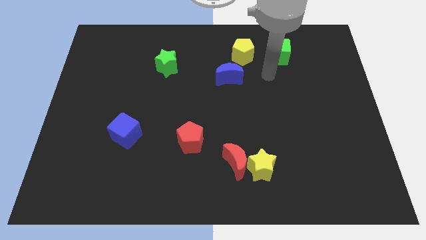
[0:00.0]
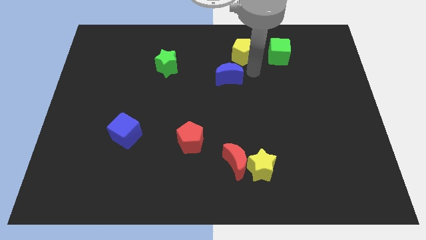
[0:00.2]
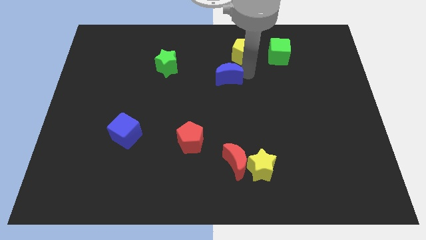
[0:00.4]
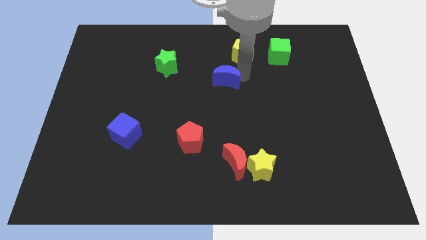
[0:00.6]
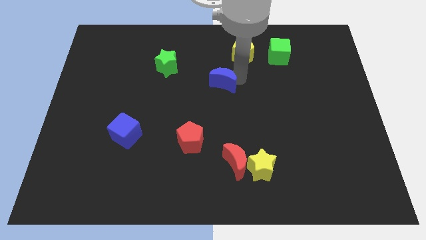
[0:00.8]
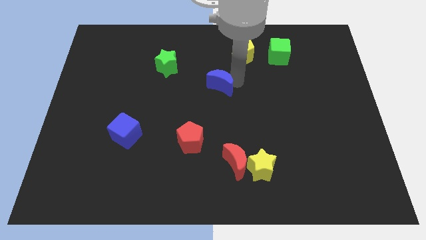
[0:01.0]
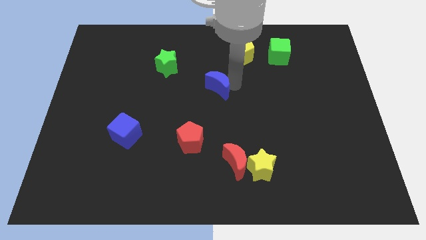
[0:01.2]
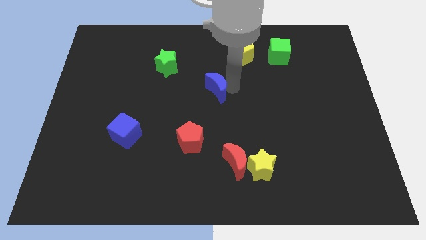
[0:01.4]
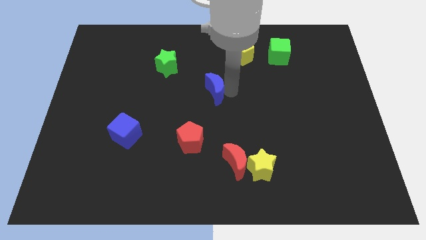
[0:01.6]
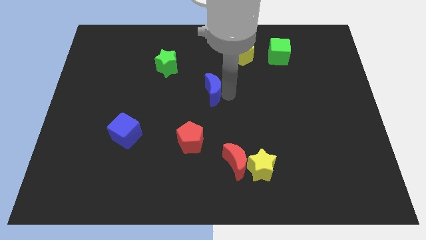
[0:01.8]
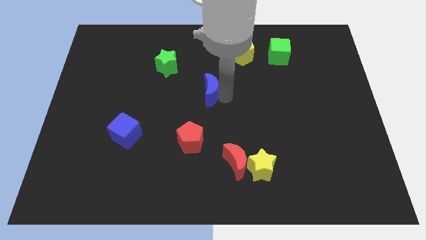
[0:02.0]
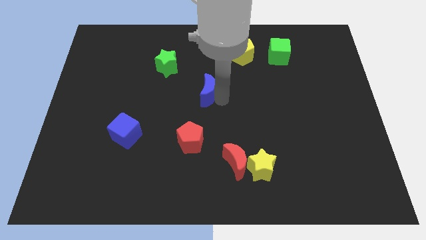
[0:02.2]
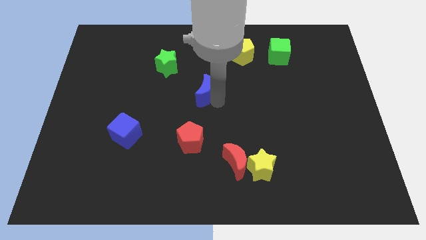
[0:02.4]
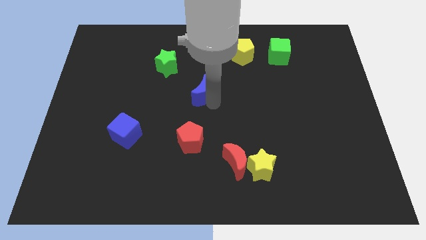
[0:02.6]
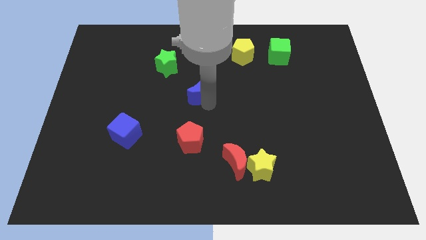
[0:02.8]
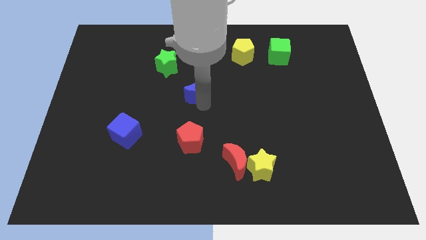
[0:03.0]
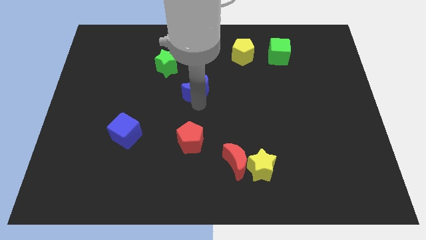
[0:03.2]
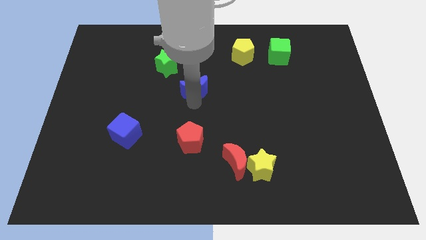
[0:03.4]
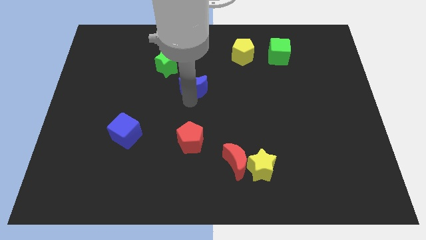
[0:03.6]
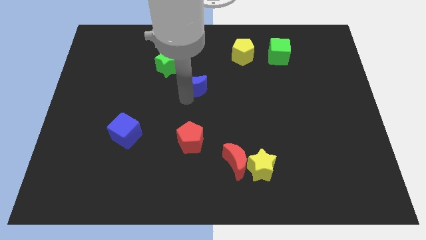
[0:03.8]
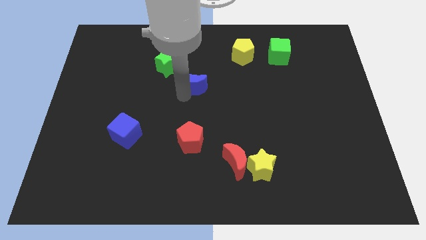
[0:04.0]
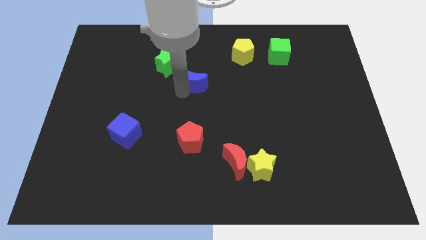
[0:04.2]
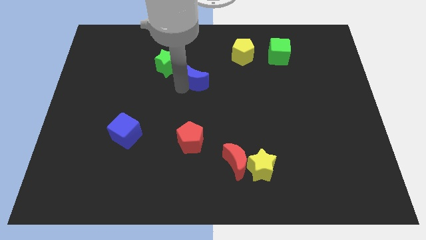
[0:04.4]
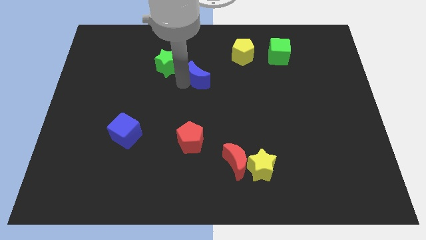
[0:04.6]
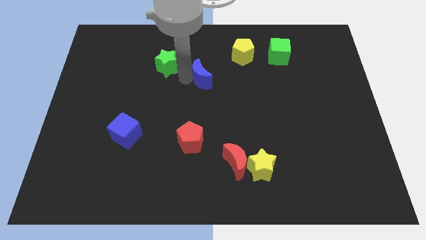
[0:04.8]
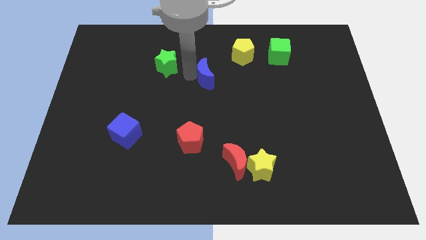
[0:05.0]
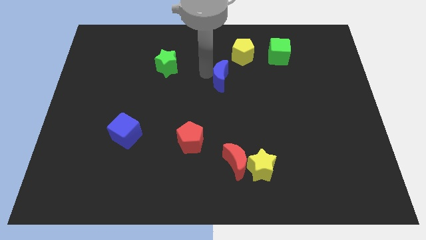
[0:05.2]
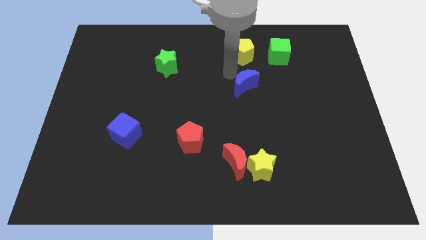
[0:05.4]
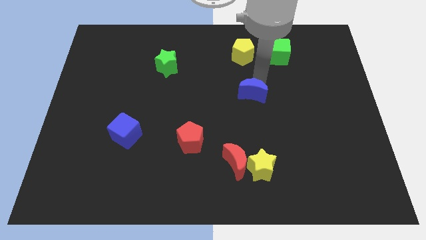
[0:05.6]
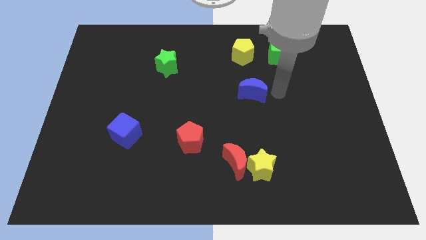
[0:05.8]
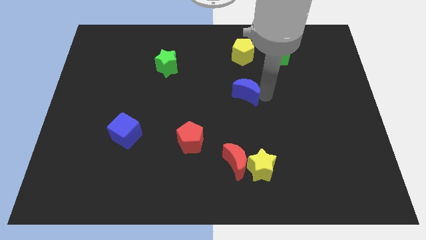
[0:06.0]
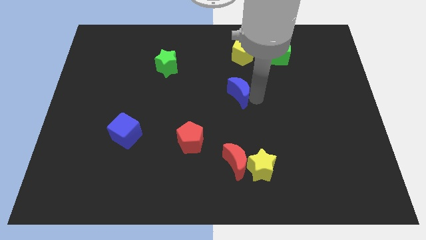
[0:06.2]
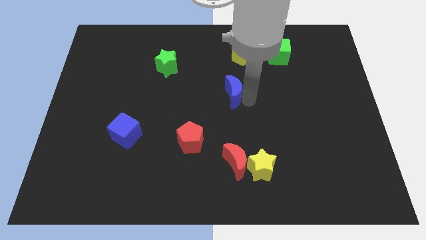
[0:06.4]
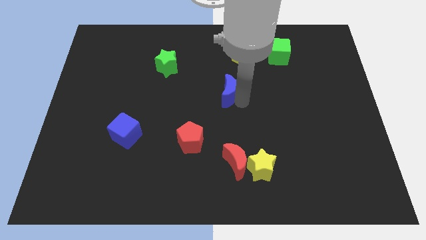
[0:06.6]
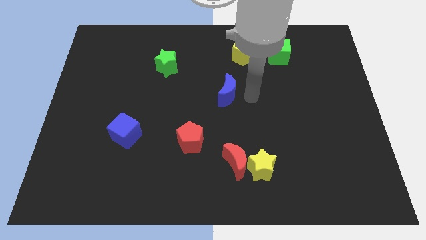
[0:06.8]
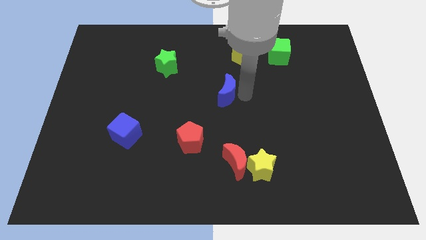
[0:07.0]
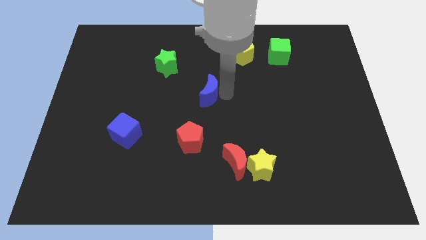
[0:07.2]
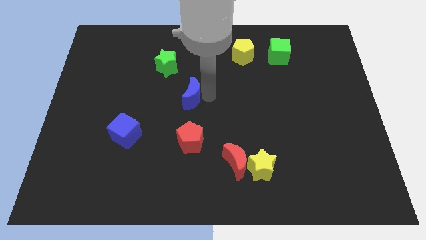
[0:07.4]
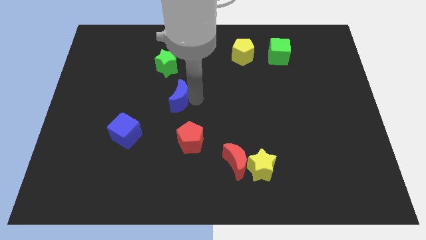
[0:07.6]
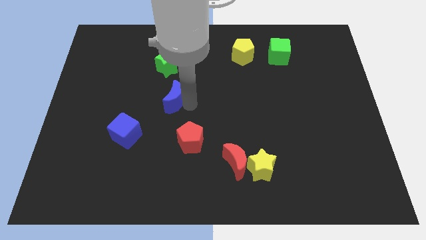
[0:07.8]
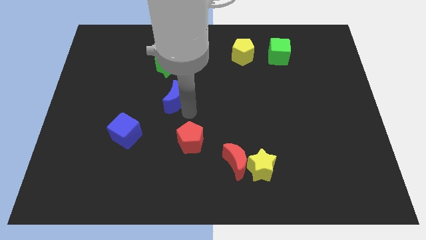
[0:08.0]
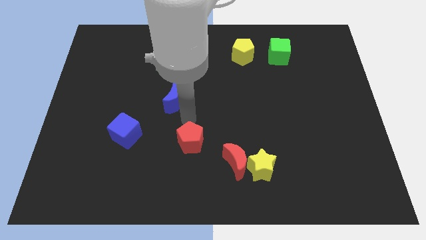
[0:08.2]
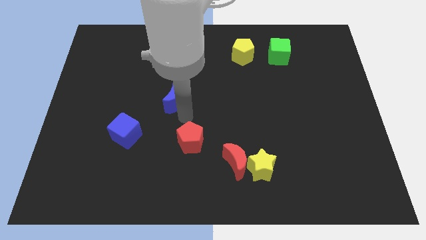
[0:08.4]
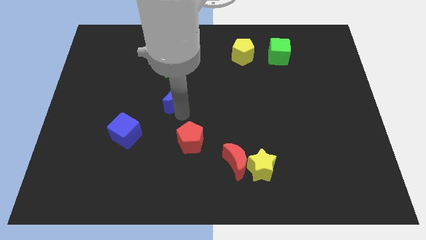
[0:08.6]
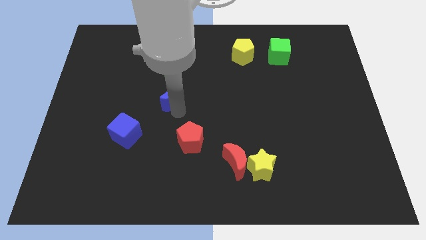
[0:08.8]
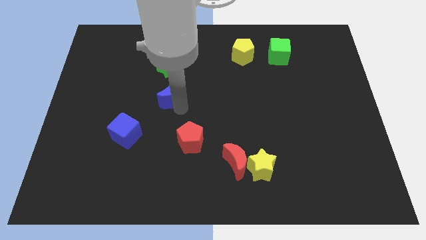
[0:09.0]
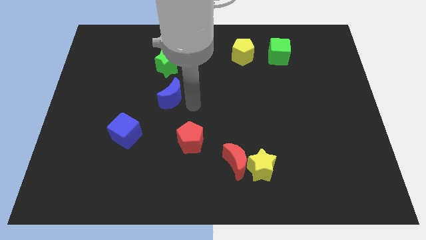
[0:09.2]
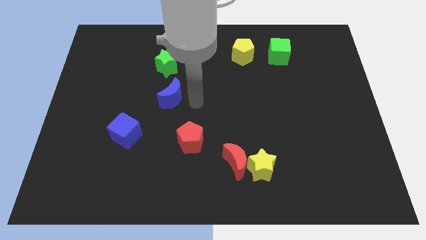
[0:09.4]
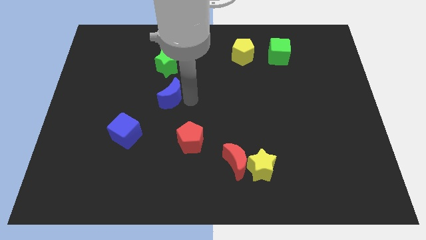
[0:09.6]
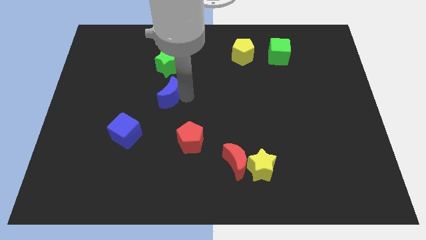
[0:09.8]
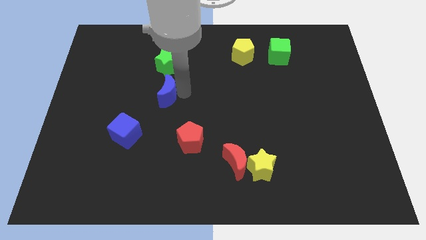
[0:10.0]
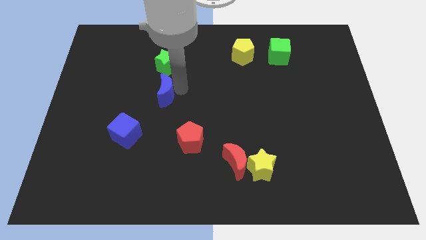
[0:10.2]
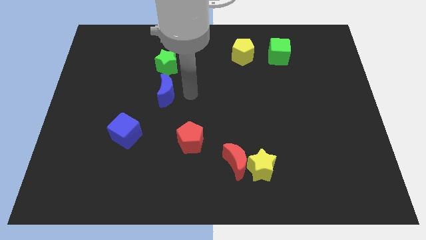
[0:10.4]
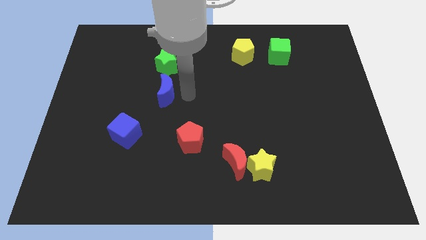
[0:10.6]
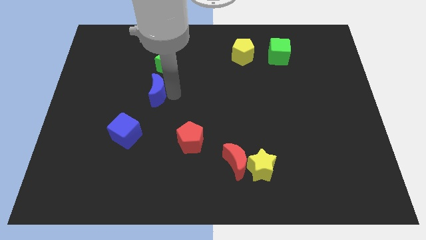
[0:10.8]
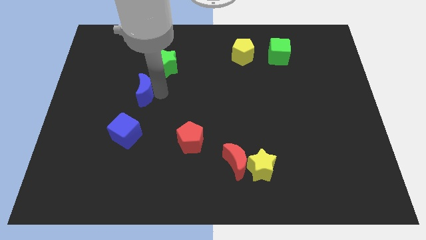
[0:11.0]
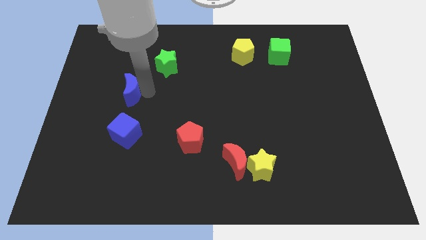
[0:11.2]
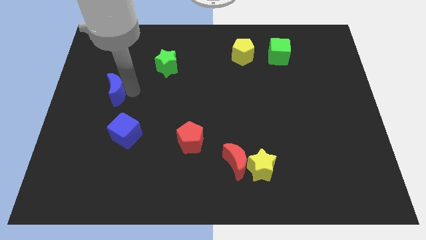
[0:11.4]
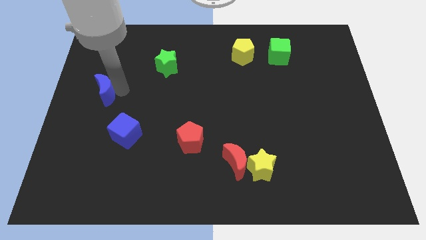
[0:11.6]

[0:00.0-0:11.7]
put the blue moon to the left side of the board

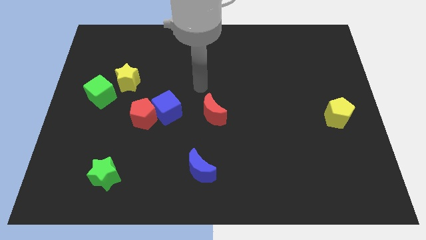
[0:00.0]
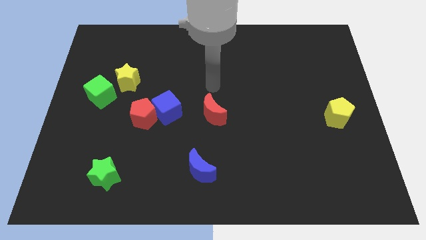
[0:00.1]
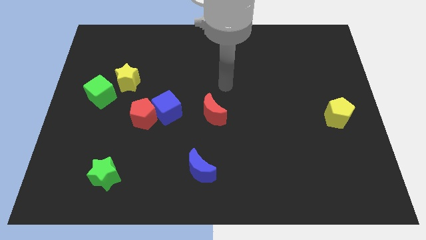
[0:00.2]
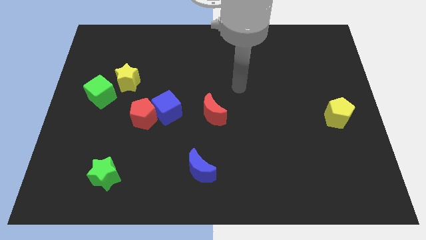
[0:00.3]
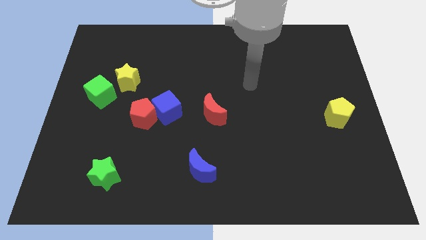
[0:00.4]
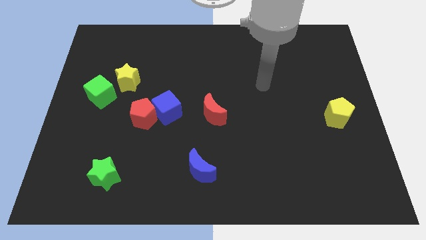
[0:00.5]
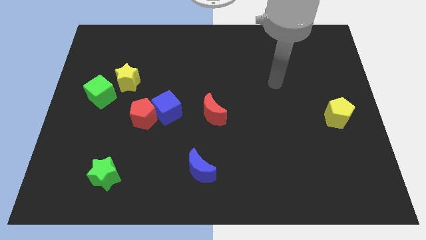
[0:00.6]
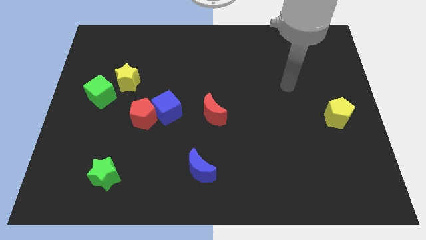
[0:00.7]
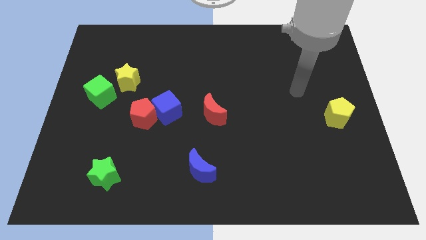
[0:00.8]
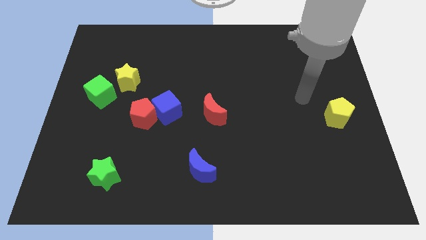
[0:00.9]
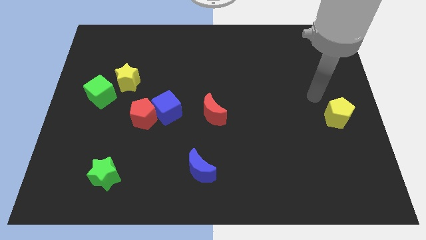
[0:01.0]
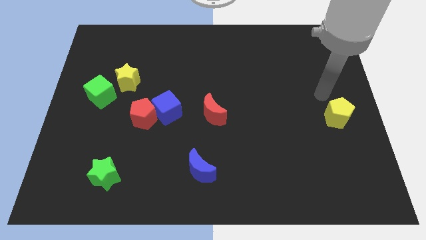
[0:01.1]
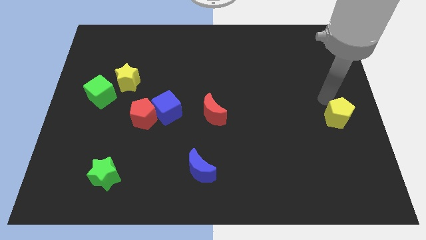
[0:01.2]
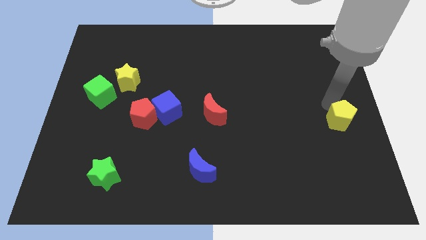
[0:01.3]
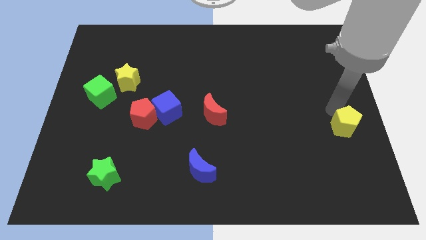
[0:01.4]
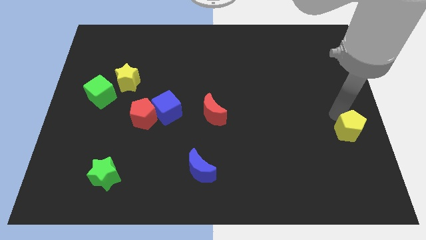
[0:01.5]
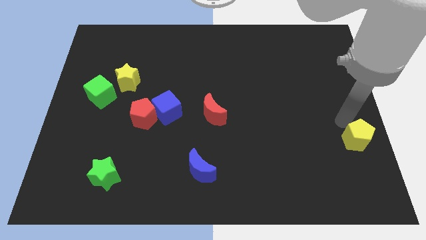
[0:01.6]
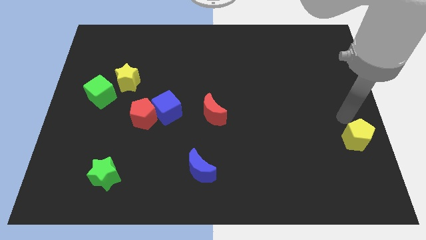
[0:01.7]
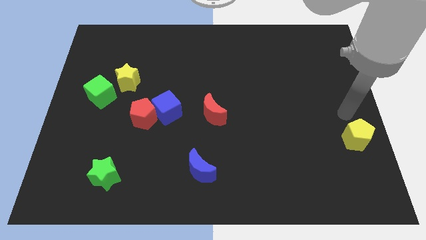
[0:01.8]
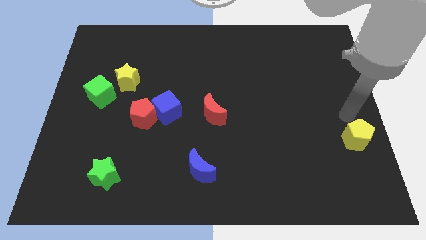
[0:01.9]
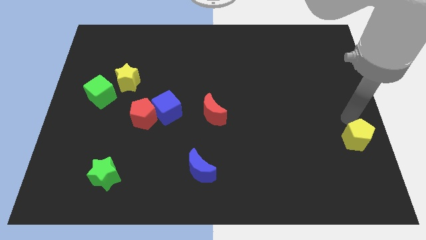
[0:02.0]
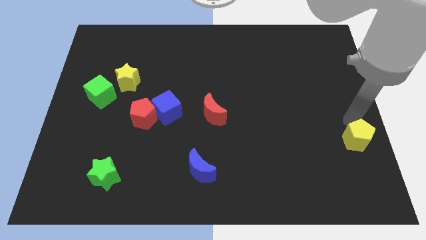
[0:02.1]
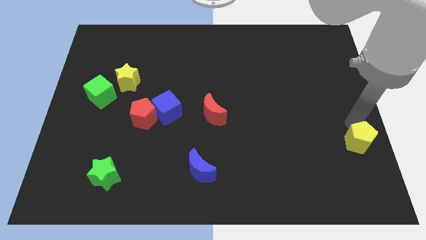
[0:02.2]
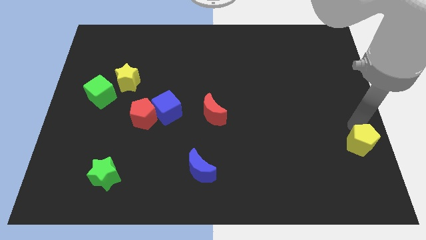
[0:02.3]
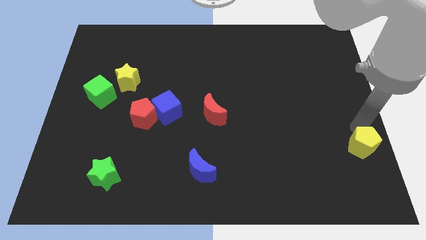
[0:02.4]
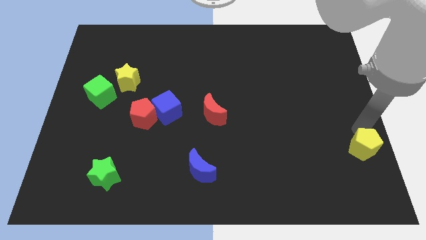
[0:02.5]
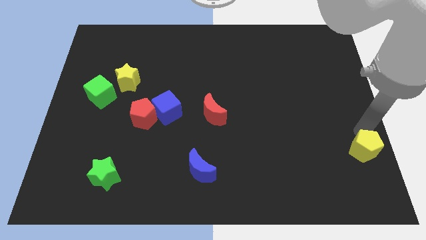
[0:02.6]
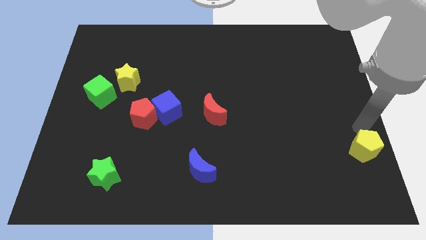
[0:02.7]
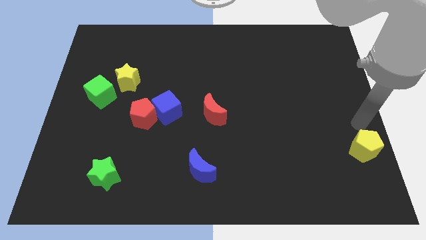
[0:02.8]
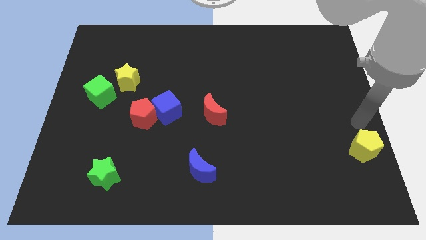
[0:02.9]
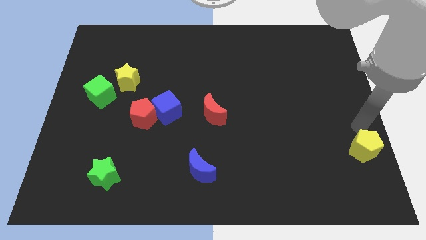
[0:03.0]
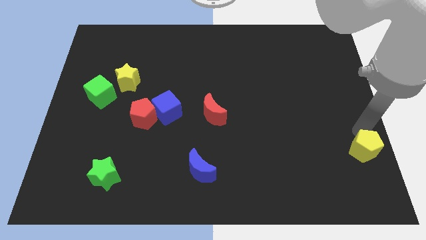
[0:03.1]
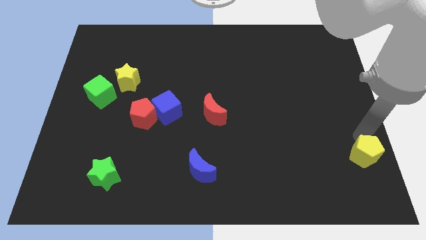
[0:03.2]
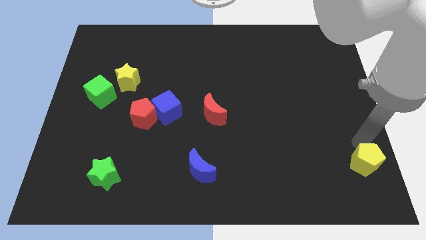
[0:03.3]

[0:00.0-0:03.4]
move the yellow pentagon to the bottom right
